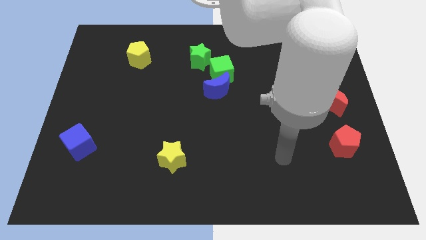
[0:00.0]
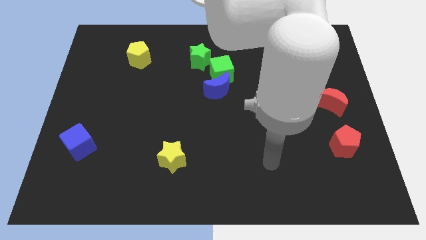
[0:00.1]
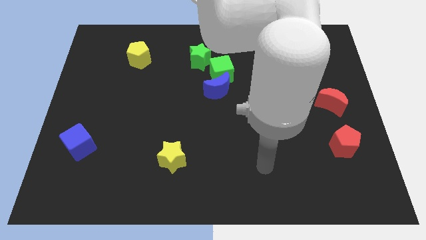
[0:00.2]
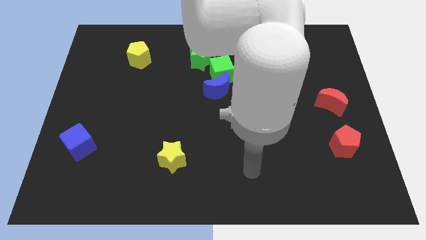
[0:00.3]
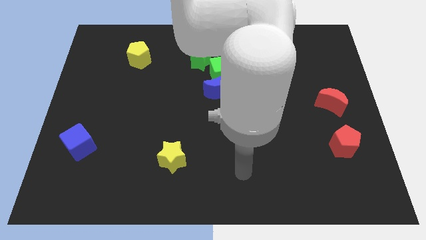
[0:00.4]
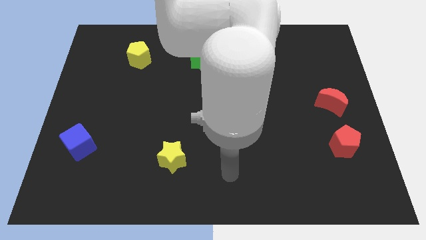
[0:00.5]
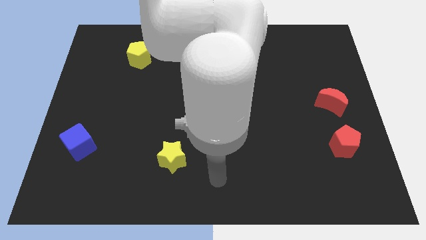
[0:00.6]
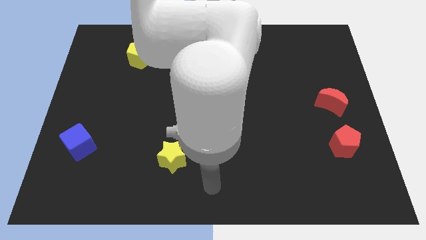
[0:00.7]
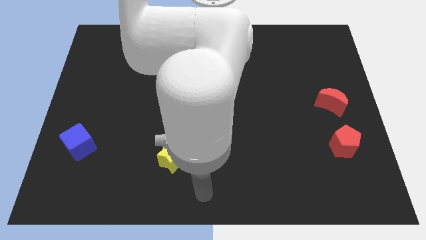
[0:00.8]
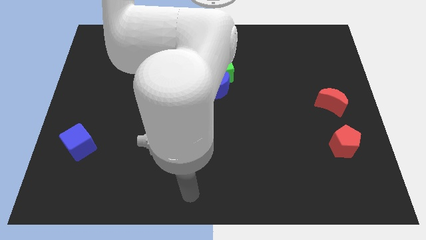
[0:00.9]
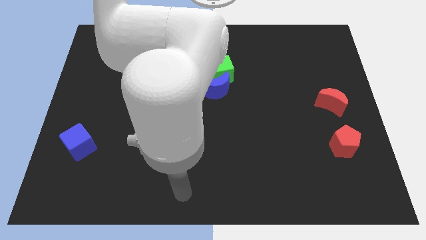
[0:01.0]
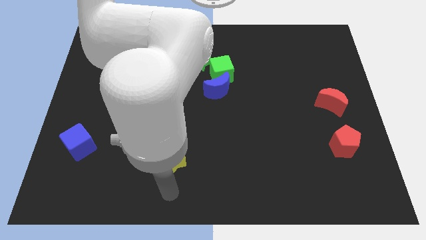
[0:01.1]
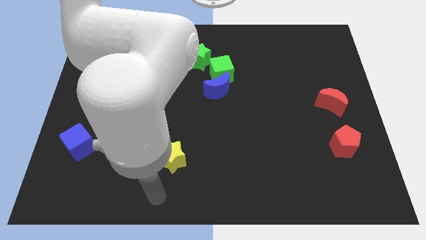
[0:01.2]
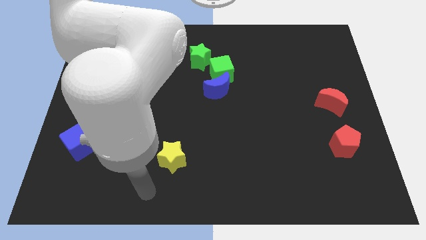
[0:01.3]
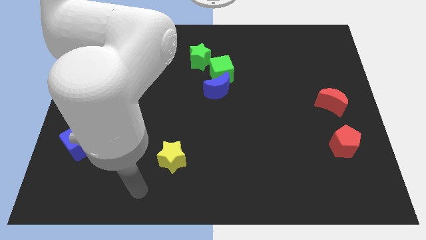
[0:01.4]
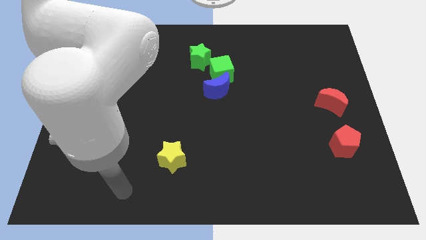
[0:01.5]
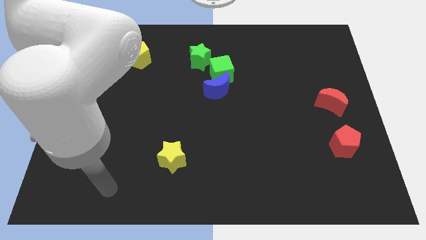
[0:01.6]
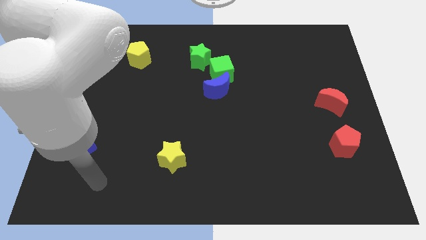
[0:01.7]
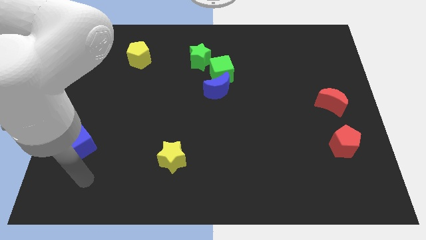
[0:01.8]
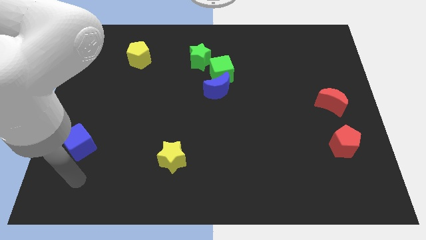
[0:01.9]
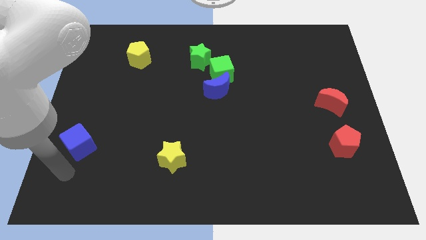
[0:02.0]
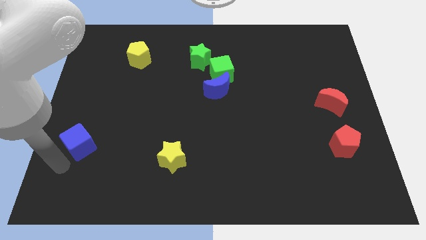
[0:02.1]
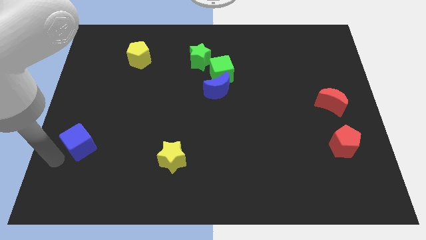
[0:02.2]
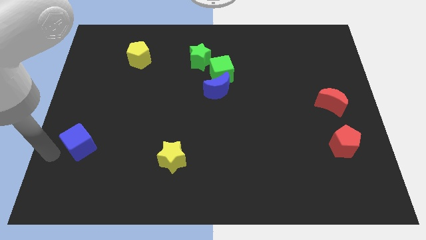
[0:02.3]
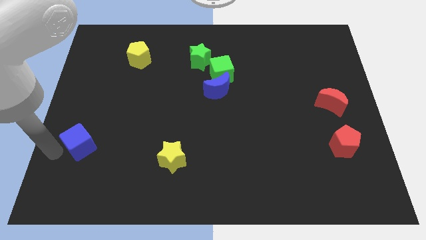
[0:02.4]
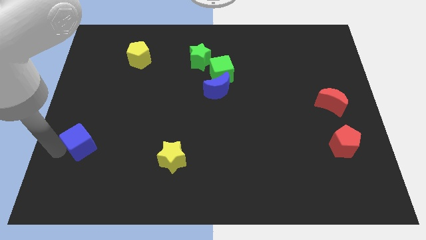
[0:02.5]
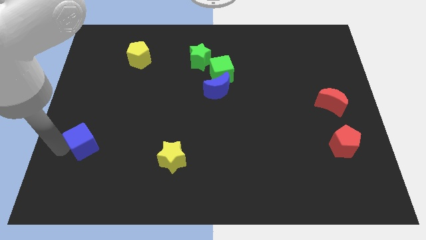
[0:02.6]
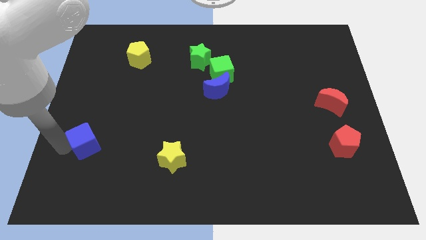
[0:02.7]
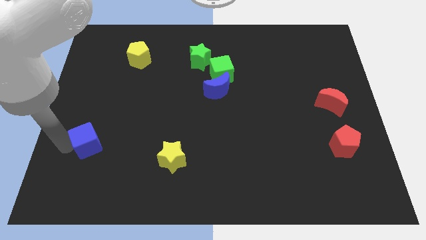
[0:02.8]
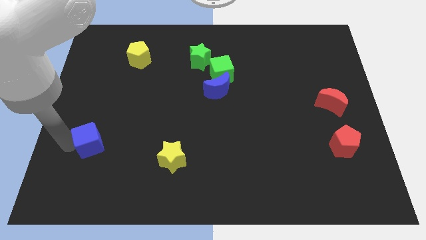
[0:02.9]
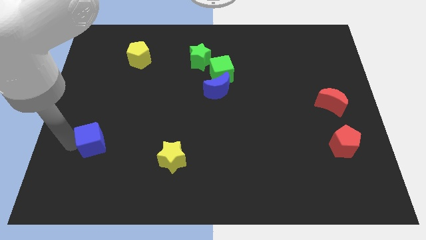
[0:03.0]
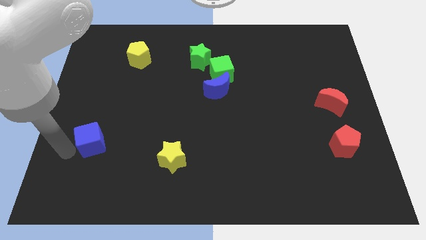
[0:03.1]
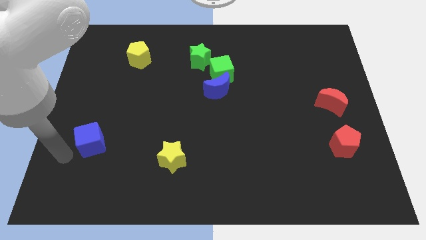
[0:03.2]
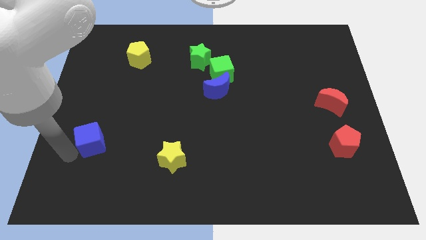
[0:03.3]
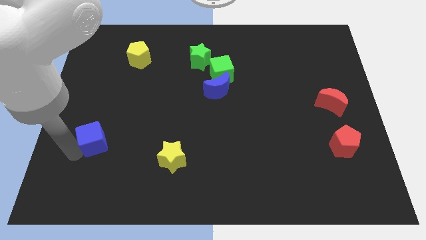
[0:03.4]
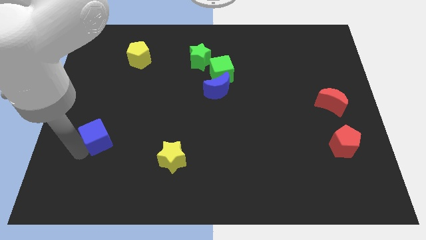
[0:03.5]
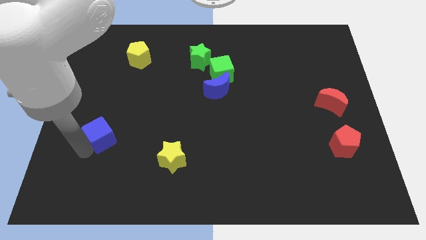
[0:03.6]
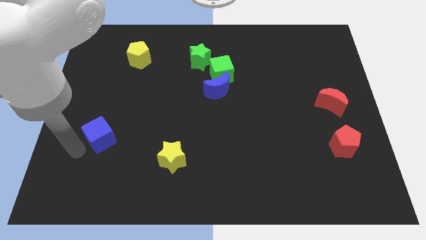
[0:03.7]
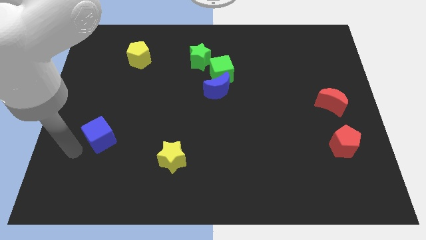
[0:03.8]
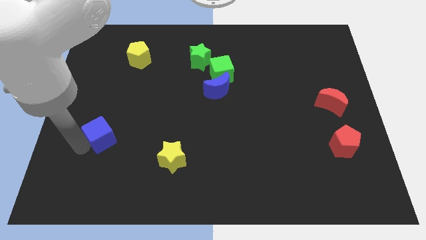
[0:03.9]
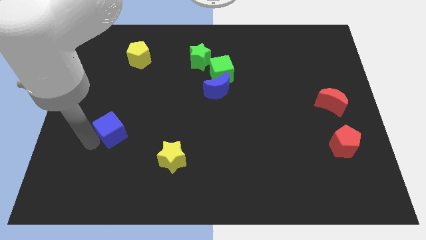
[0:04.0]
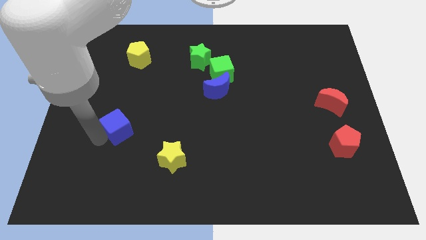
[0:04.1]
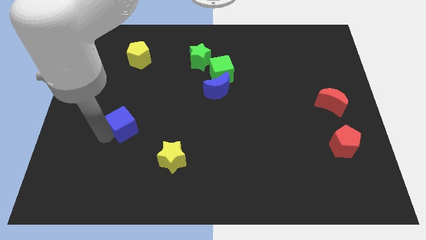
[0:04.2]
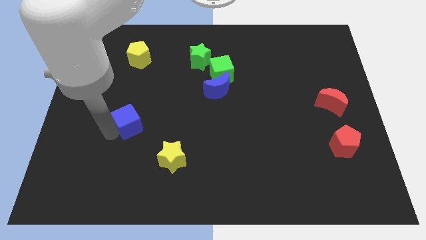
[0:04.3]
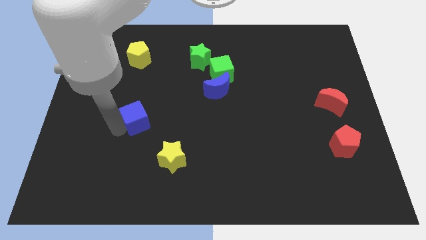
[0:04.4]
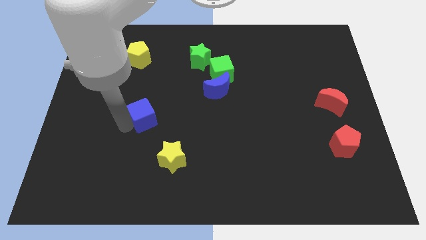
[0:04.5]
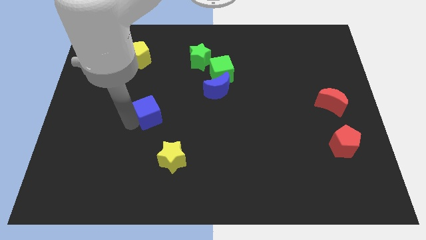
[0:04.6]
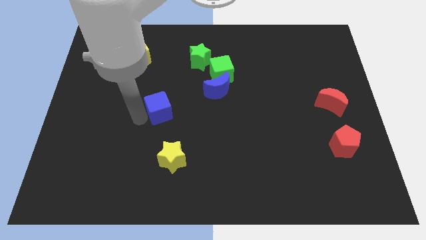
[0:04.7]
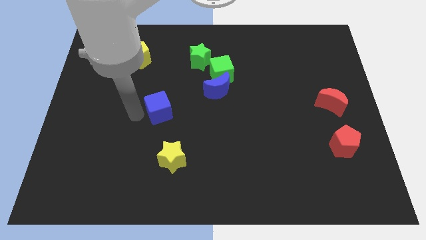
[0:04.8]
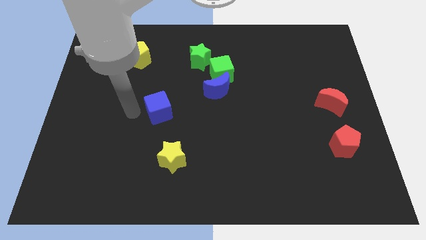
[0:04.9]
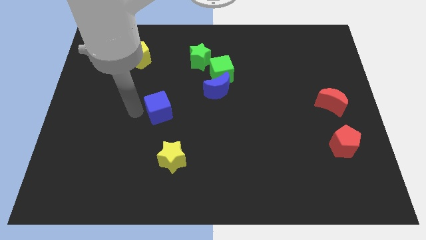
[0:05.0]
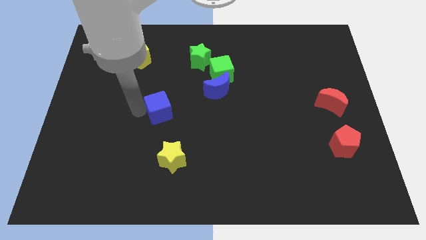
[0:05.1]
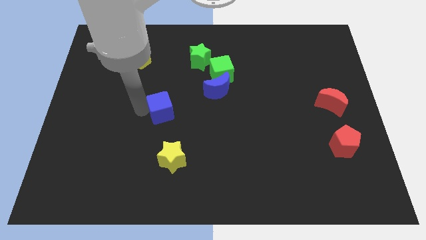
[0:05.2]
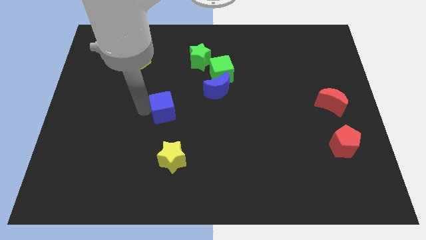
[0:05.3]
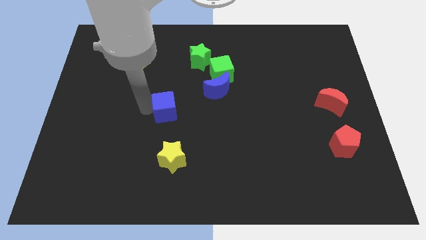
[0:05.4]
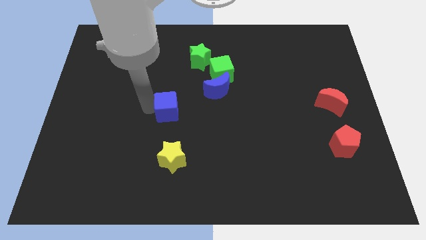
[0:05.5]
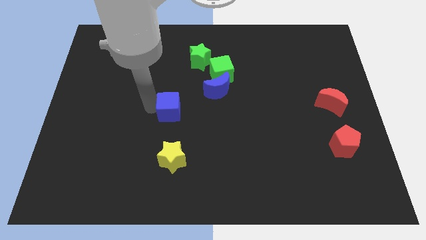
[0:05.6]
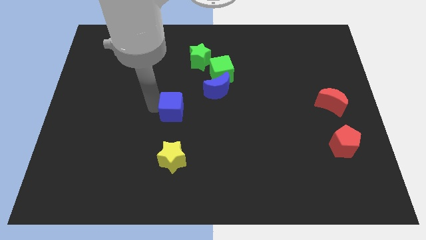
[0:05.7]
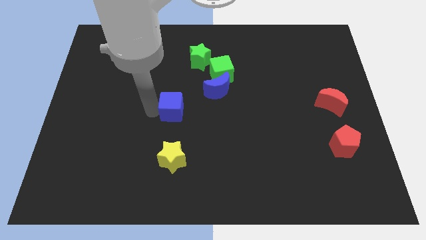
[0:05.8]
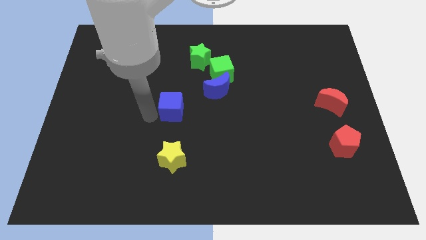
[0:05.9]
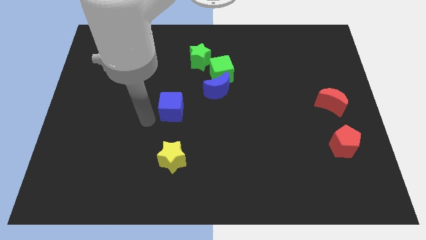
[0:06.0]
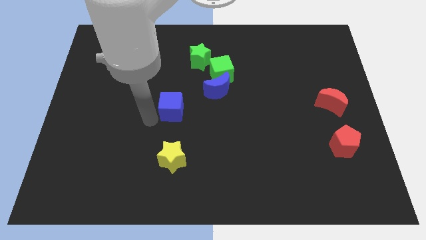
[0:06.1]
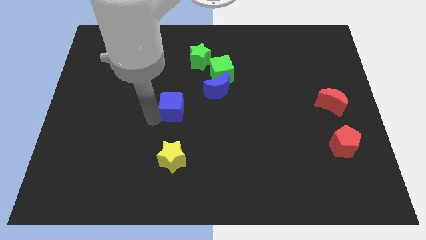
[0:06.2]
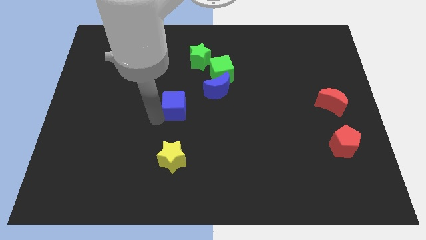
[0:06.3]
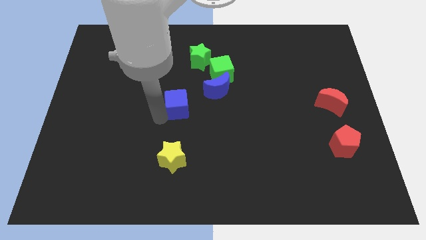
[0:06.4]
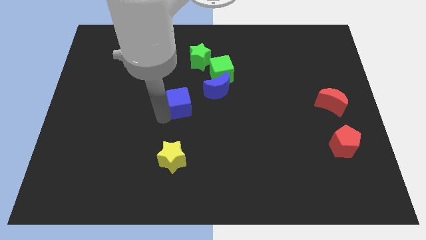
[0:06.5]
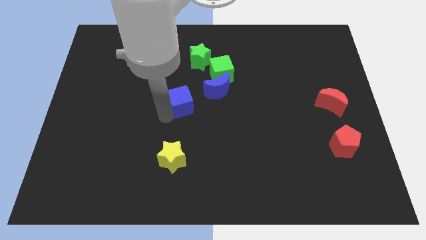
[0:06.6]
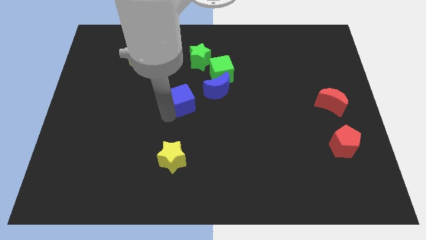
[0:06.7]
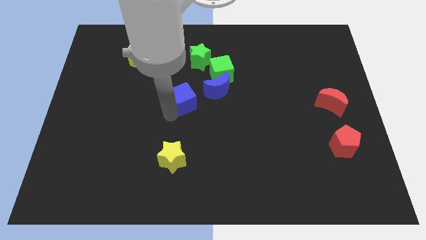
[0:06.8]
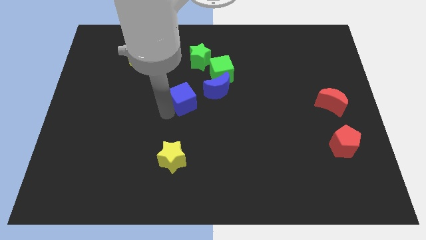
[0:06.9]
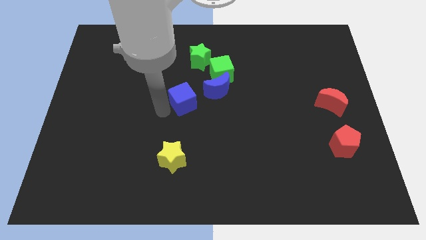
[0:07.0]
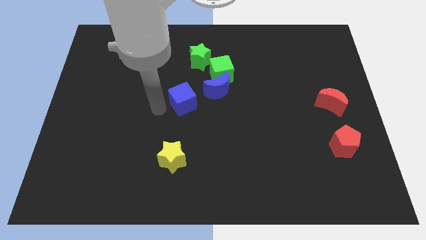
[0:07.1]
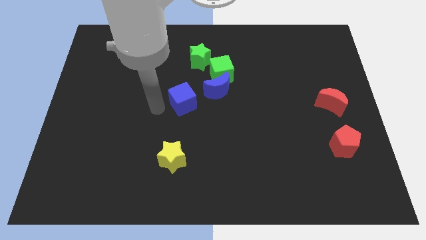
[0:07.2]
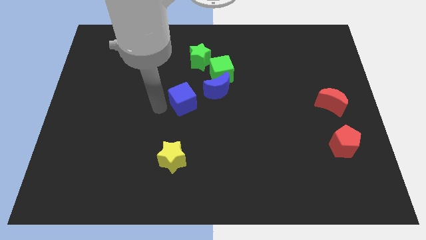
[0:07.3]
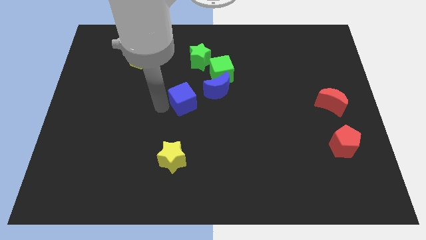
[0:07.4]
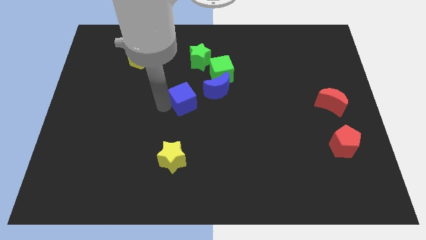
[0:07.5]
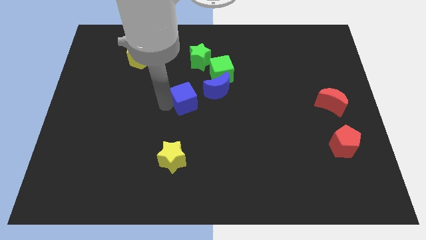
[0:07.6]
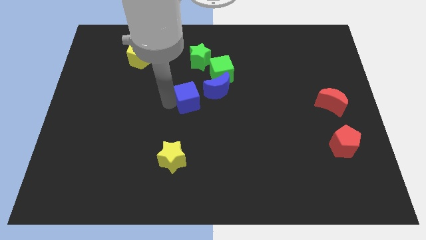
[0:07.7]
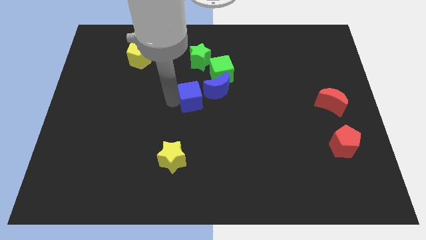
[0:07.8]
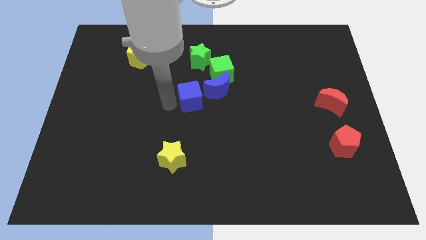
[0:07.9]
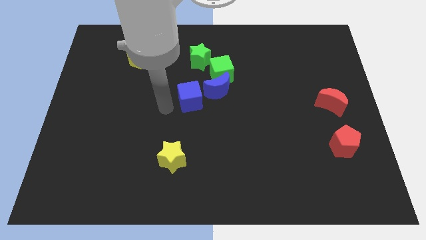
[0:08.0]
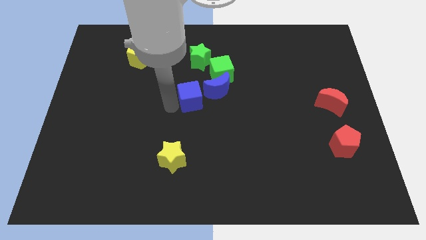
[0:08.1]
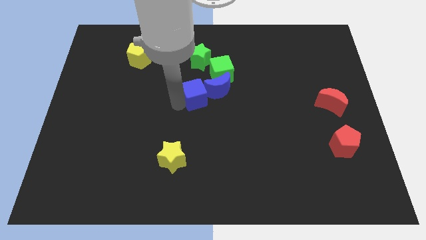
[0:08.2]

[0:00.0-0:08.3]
slide the blue cube close to the blue moon
